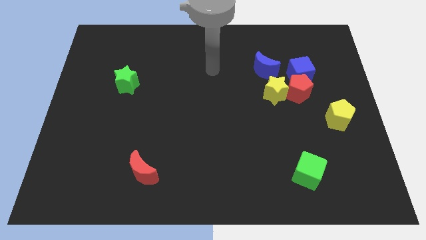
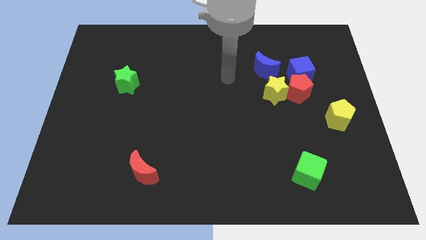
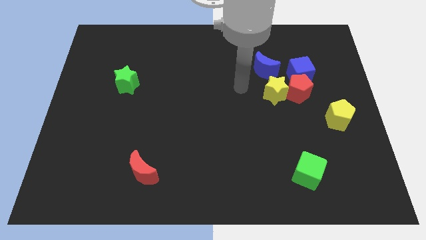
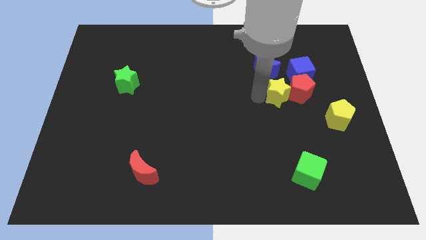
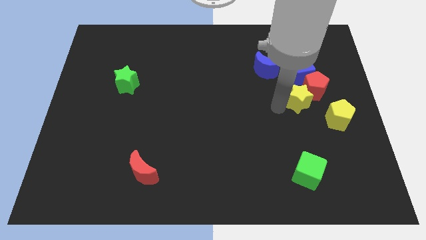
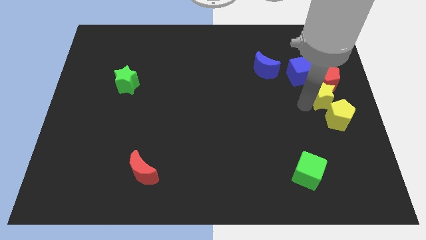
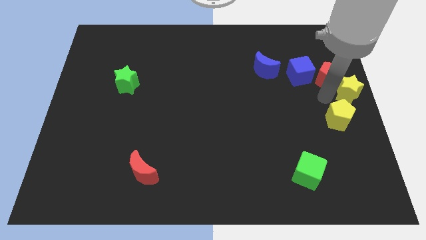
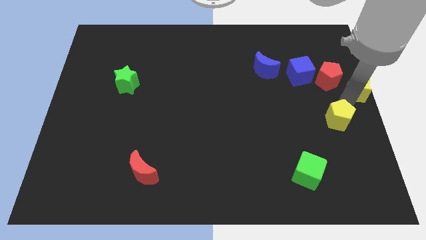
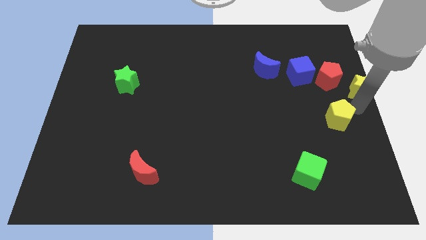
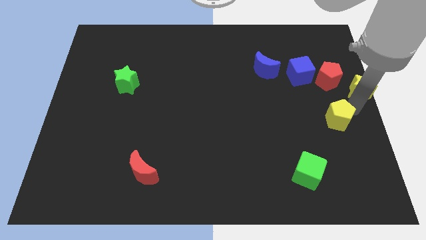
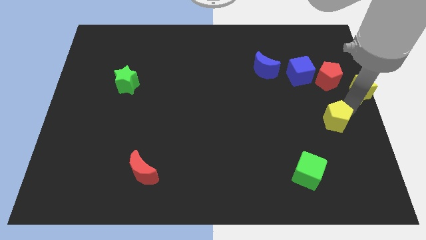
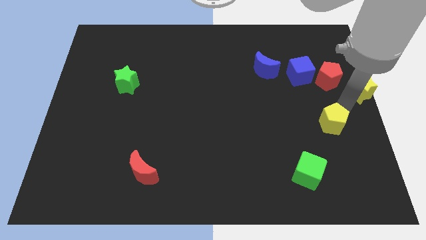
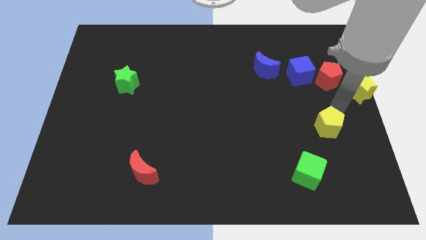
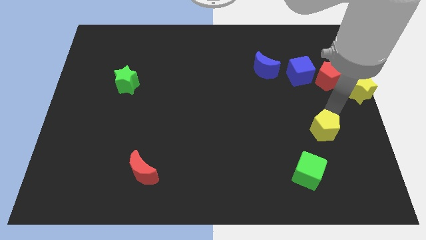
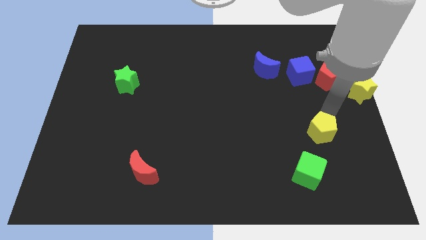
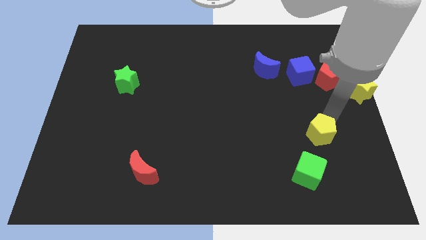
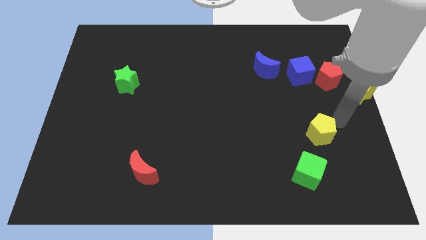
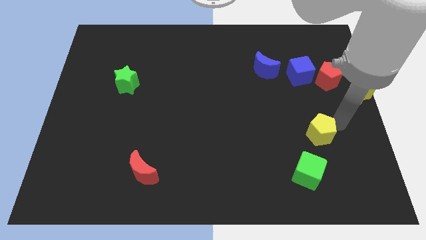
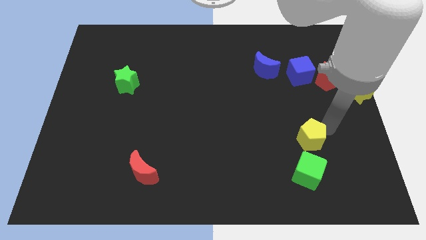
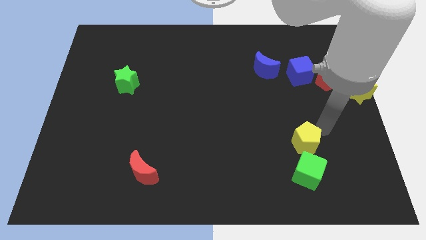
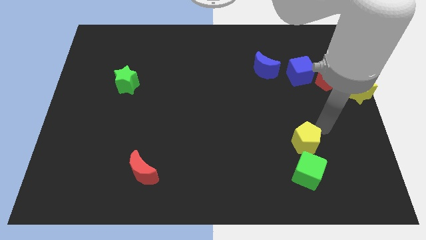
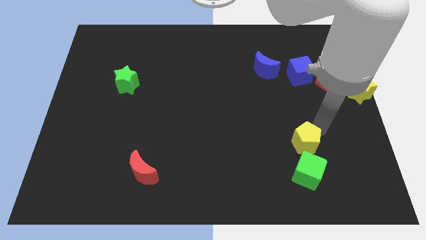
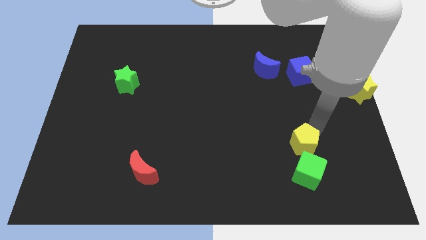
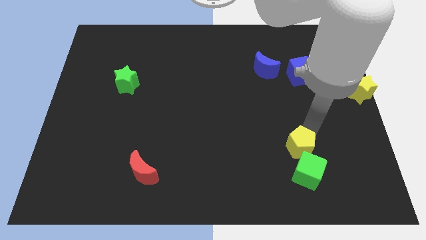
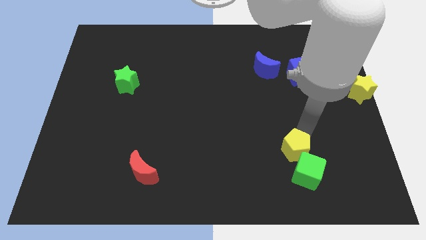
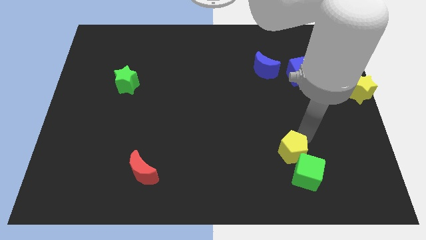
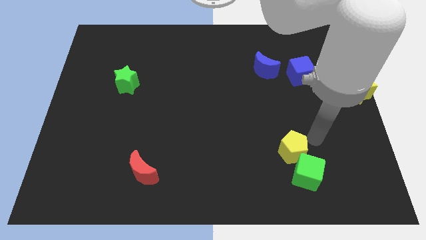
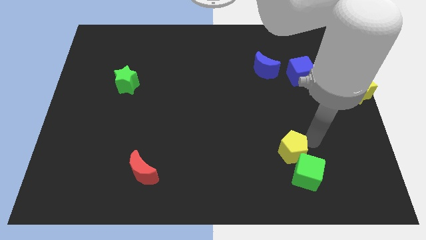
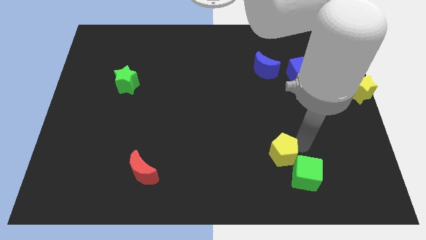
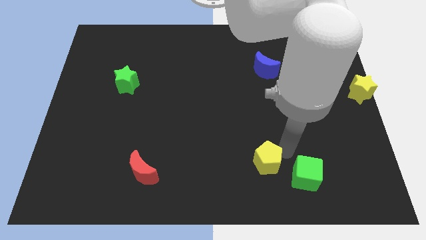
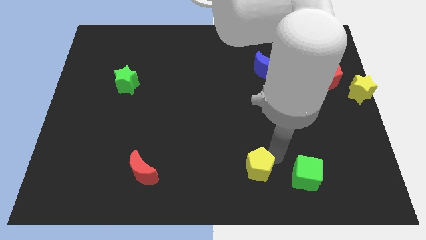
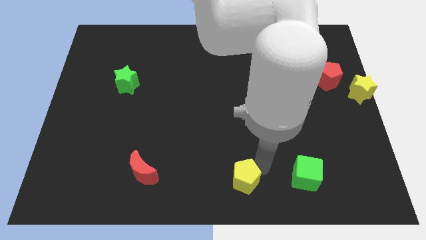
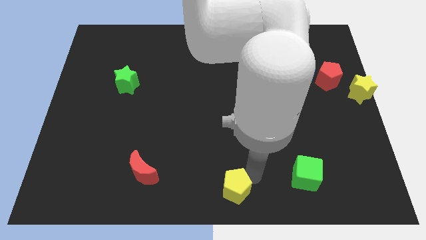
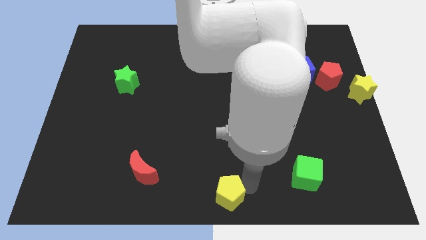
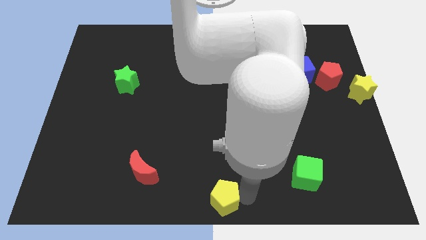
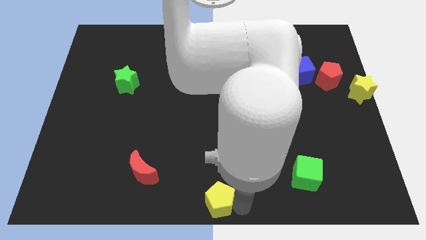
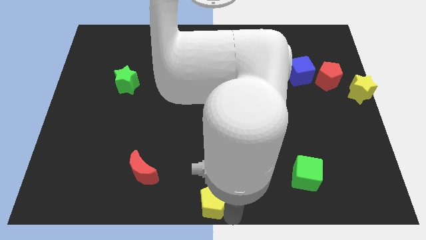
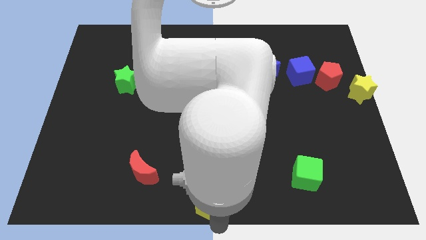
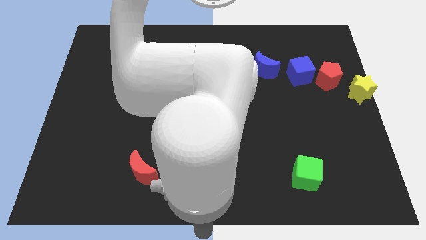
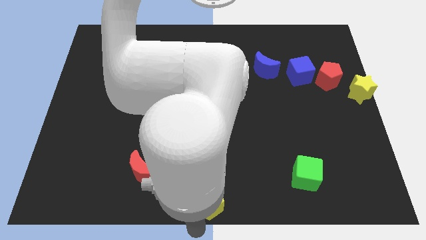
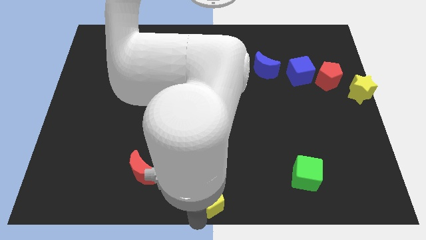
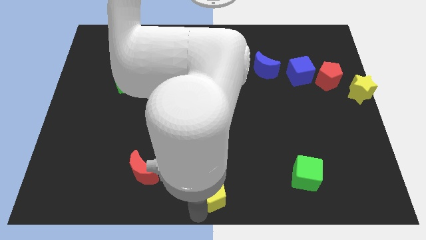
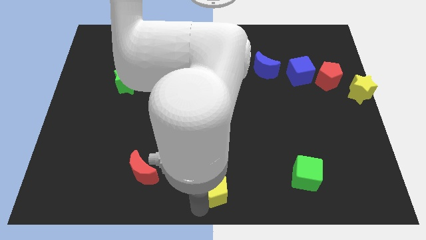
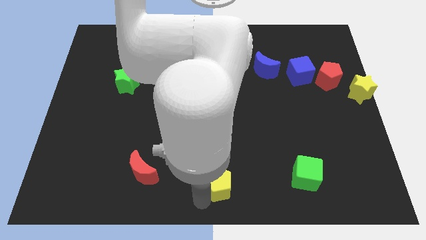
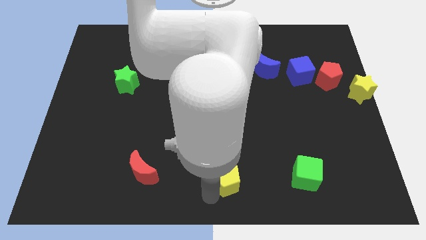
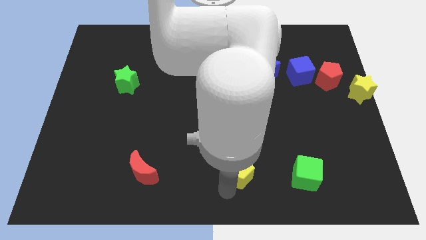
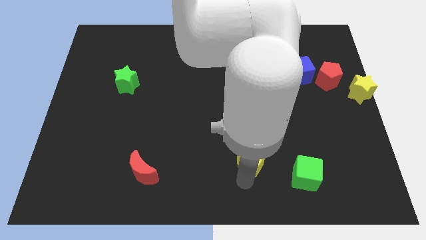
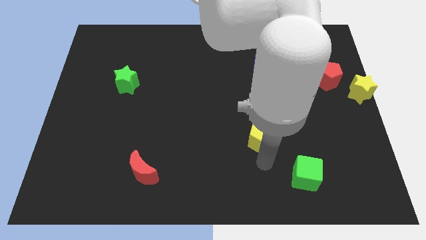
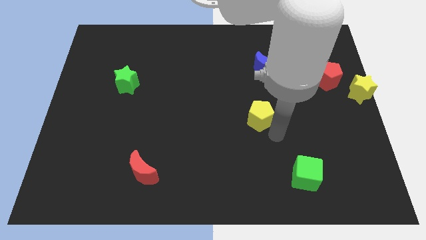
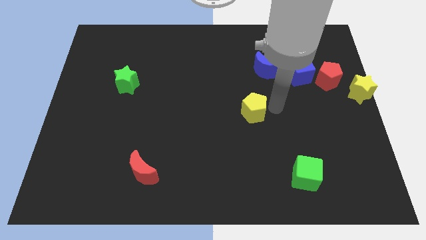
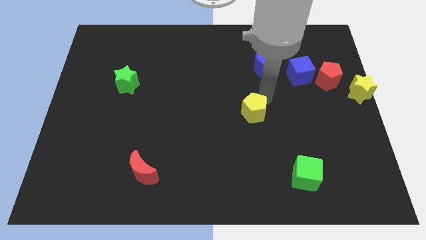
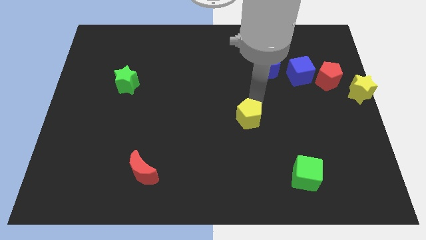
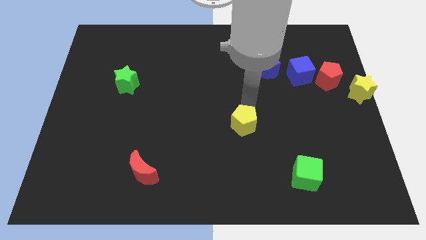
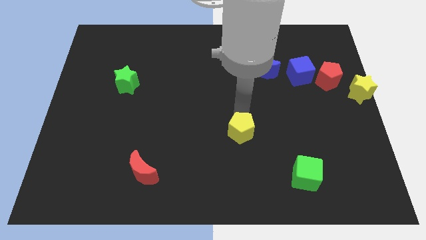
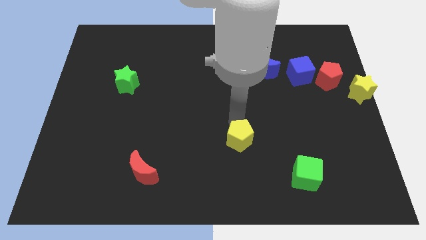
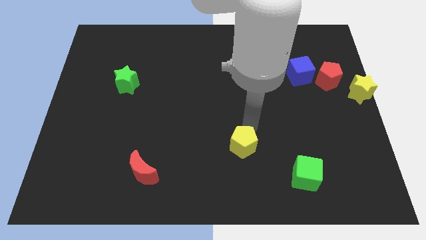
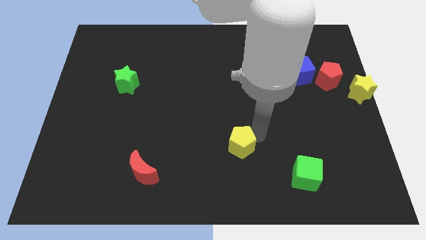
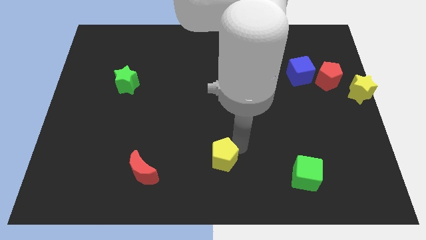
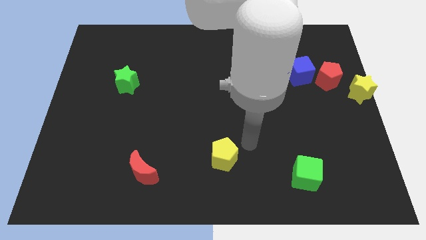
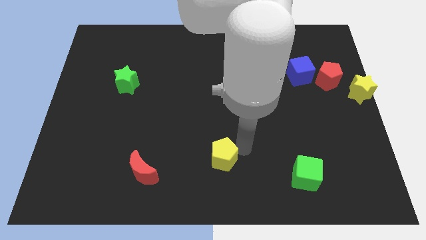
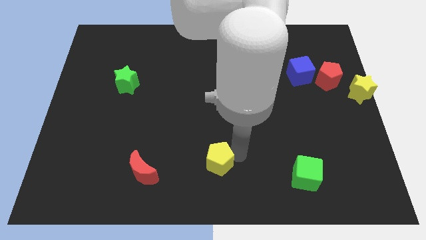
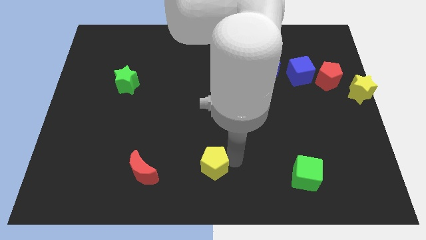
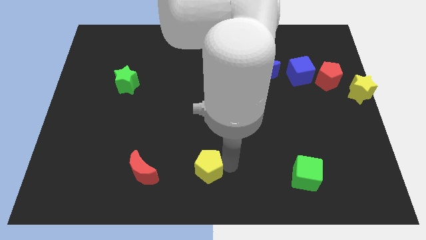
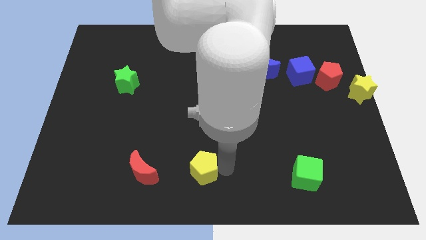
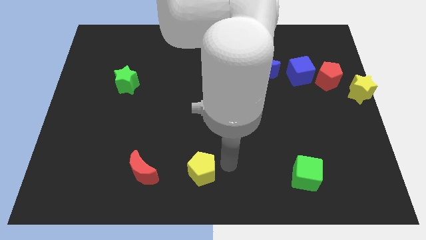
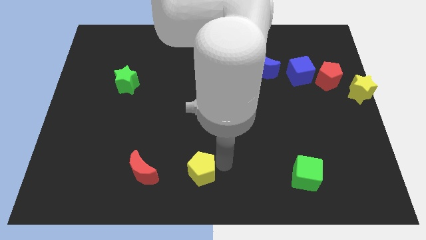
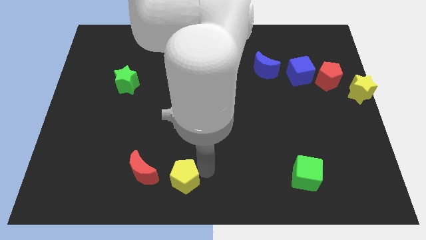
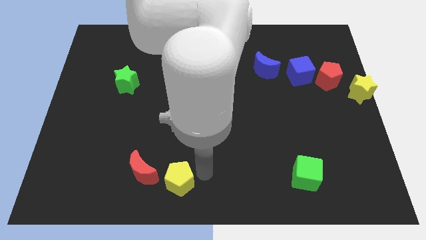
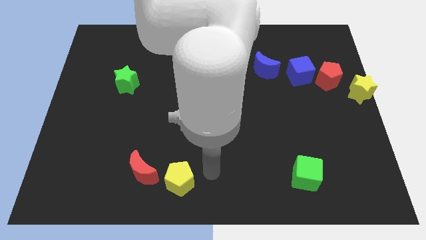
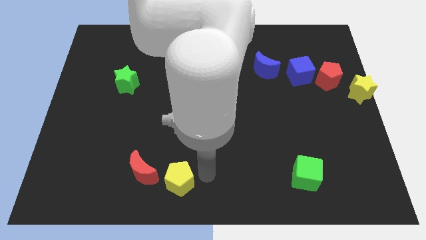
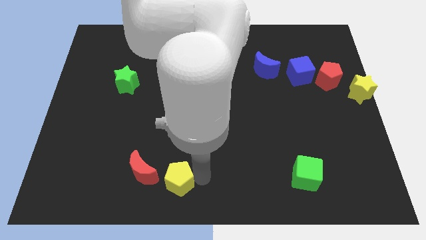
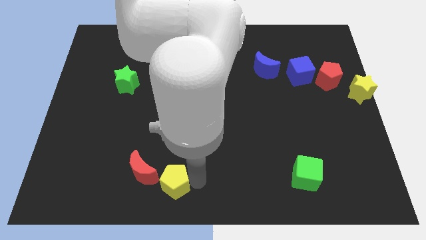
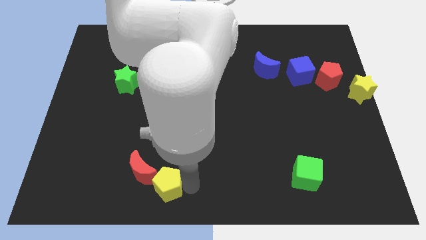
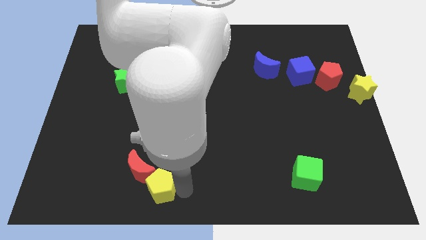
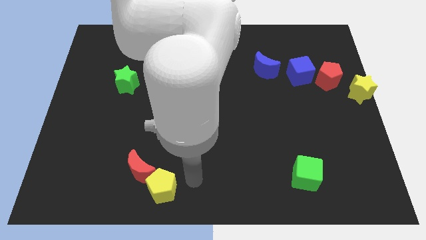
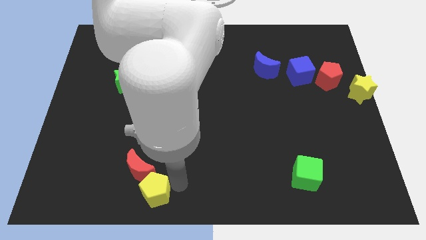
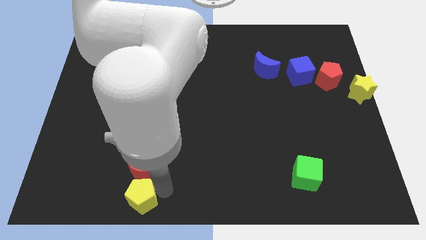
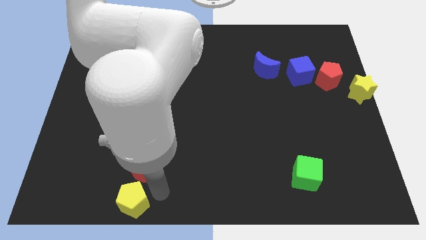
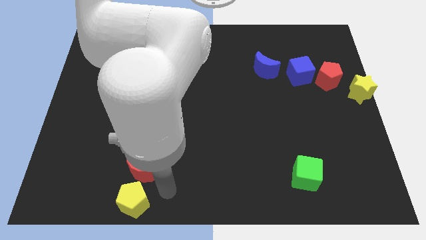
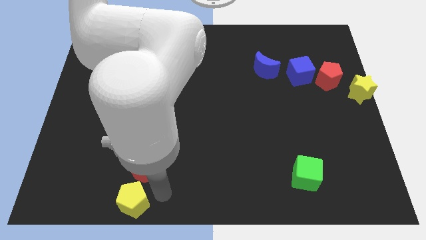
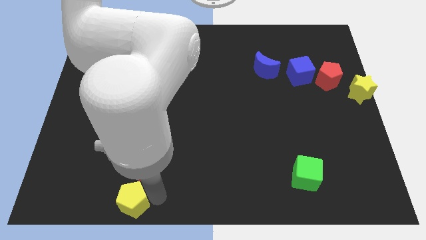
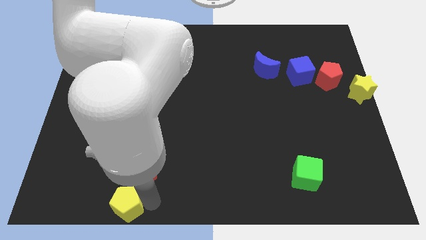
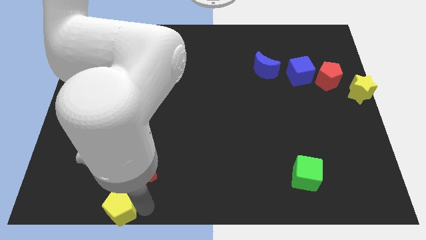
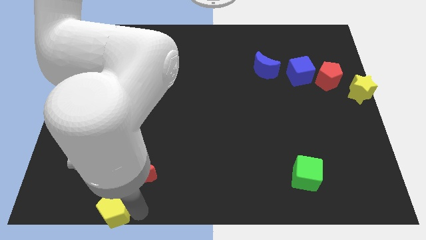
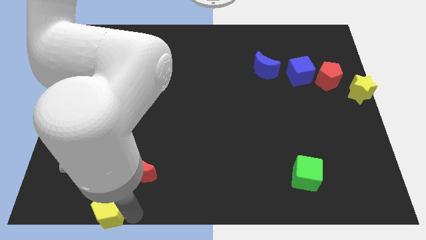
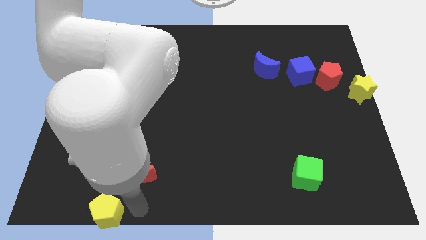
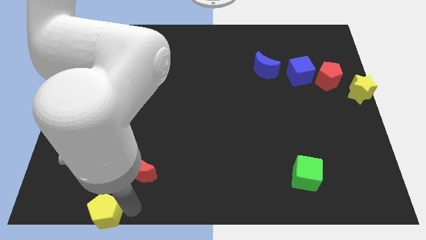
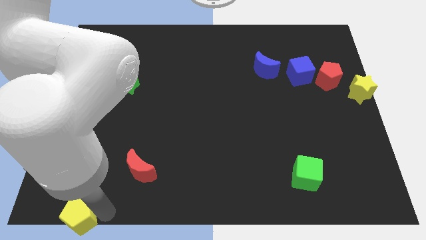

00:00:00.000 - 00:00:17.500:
push the yellow pentagon to the bottom left of the board
